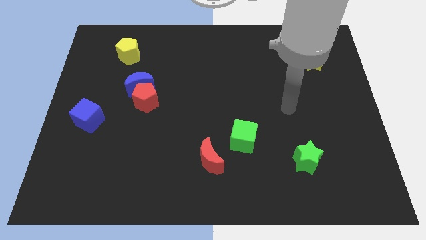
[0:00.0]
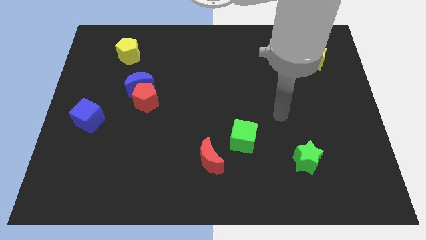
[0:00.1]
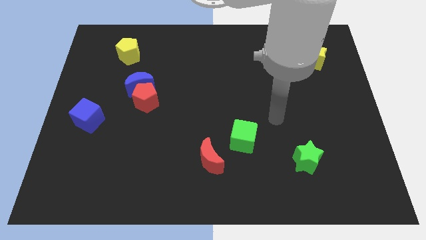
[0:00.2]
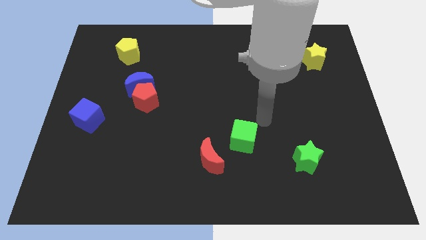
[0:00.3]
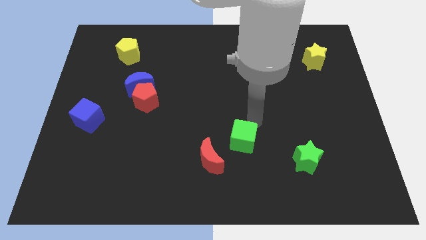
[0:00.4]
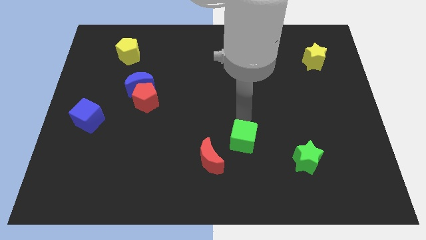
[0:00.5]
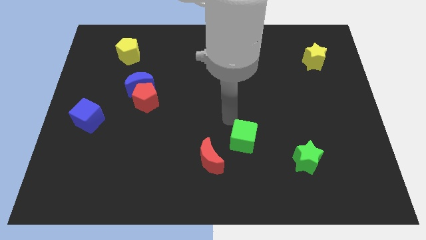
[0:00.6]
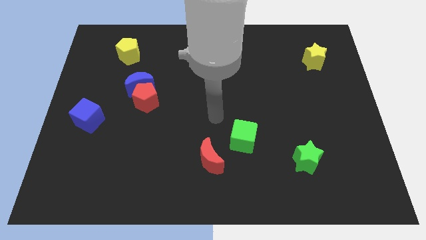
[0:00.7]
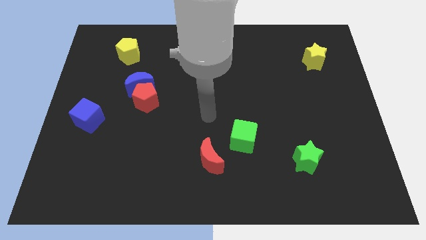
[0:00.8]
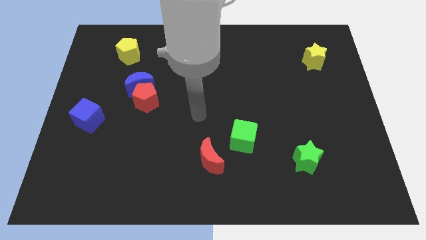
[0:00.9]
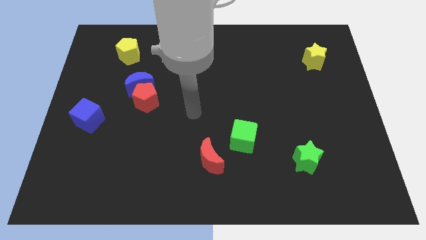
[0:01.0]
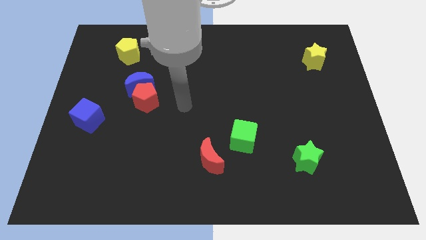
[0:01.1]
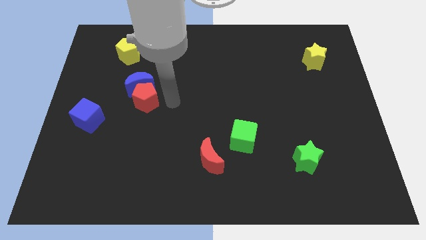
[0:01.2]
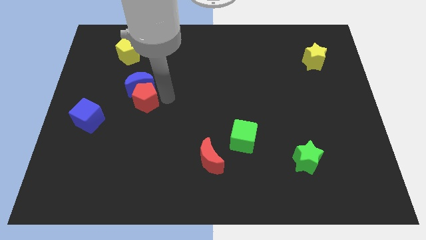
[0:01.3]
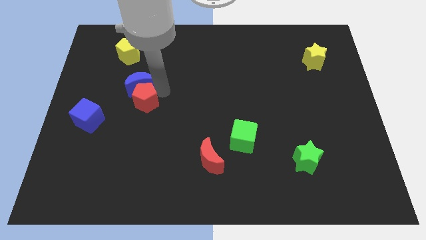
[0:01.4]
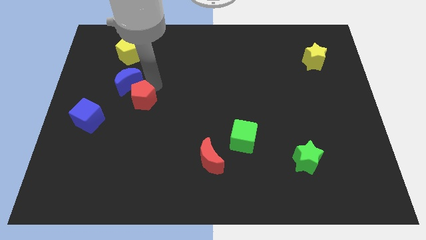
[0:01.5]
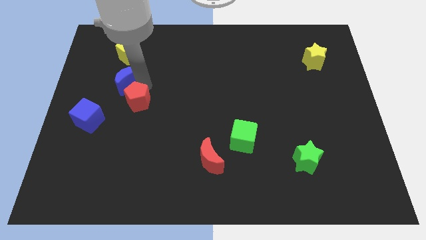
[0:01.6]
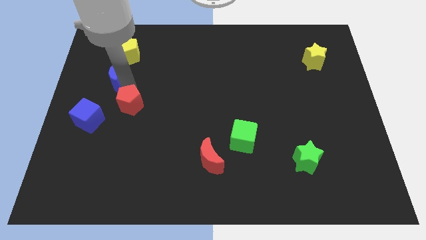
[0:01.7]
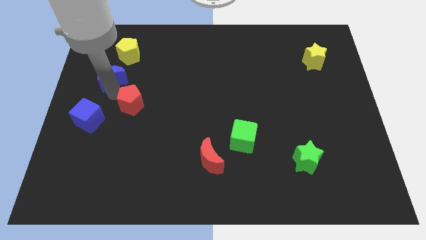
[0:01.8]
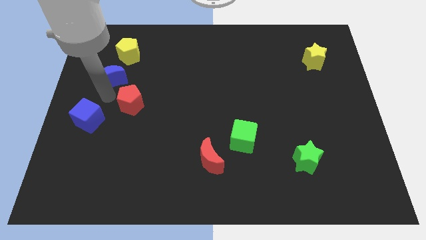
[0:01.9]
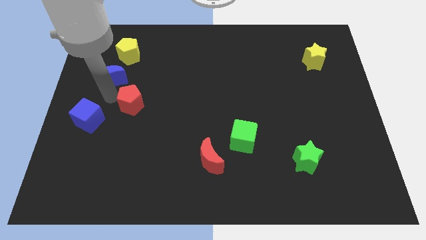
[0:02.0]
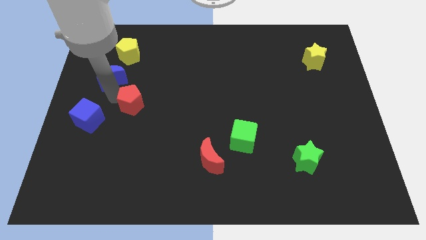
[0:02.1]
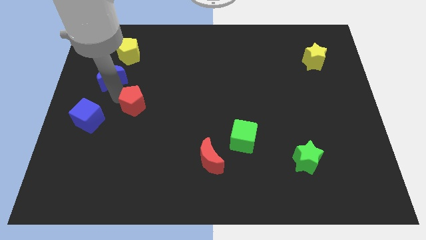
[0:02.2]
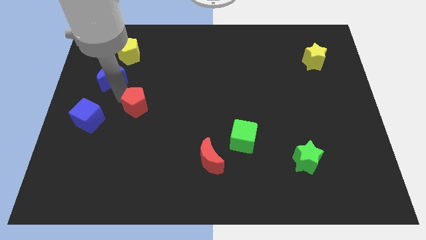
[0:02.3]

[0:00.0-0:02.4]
move the red pentagon away from the blue moon

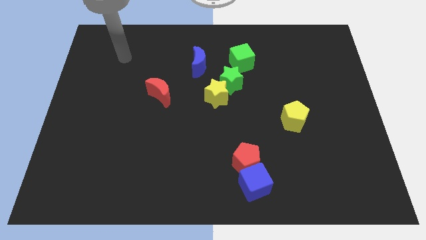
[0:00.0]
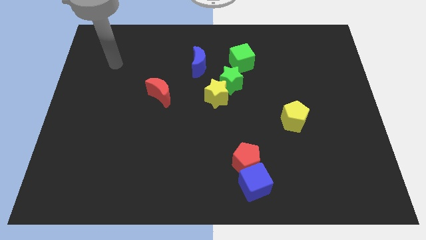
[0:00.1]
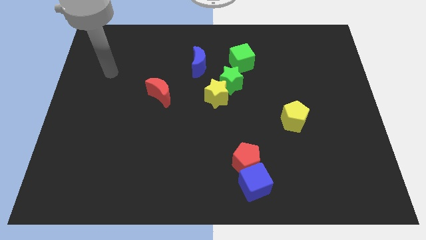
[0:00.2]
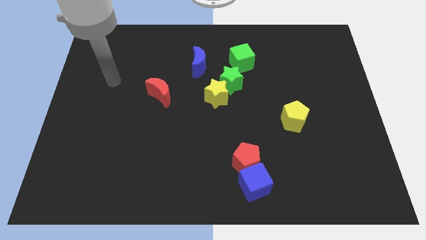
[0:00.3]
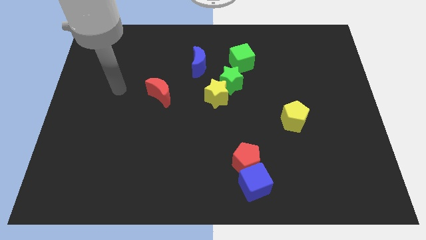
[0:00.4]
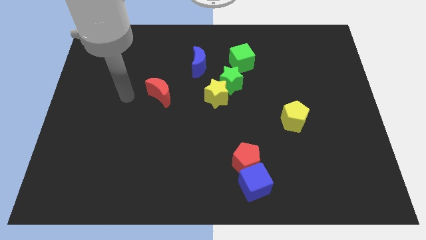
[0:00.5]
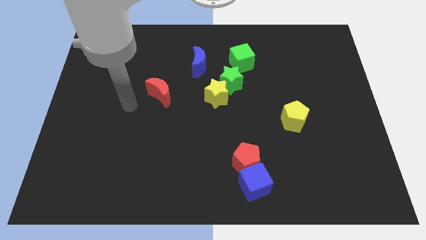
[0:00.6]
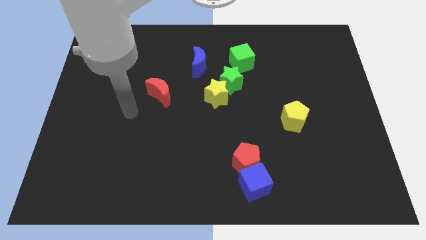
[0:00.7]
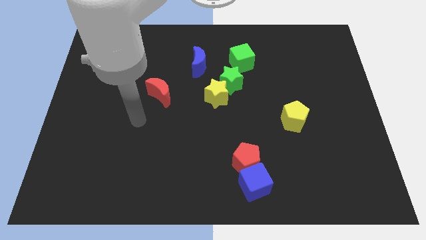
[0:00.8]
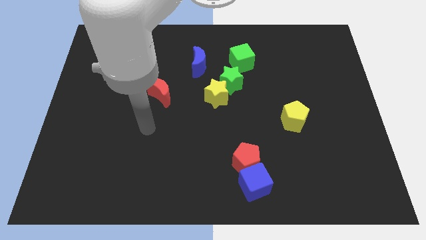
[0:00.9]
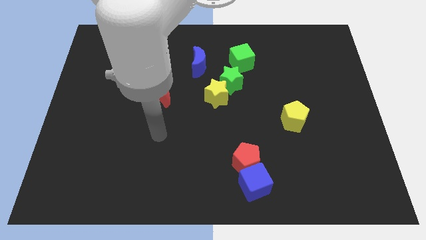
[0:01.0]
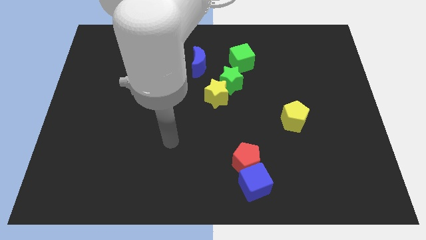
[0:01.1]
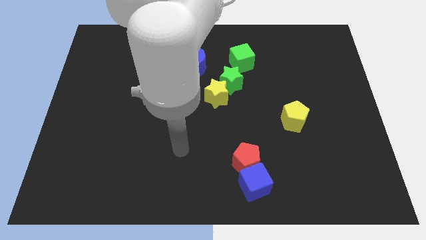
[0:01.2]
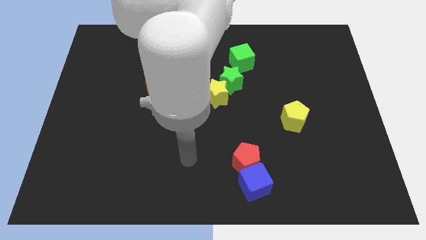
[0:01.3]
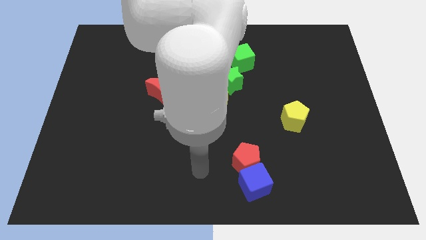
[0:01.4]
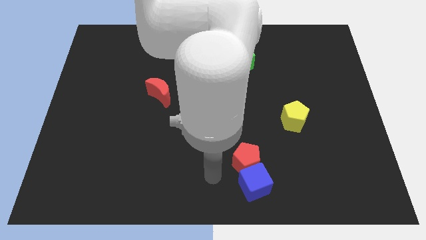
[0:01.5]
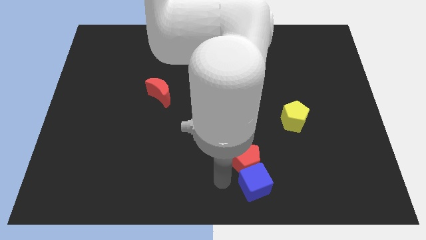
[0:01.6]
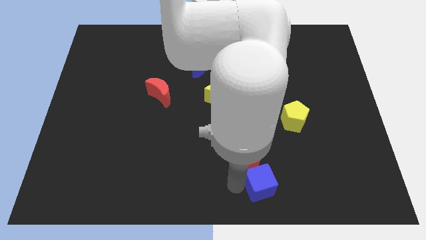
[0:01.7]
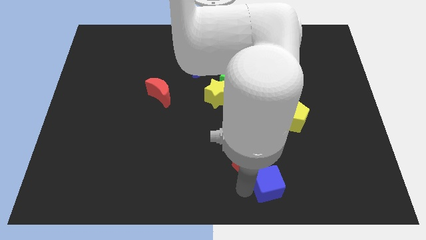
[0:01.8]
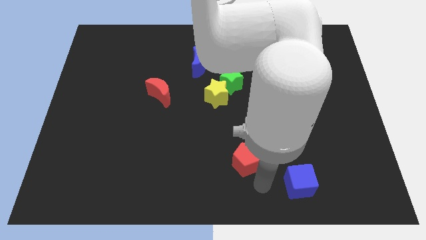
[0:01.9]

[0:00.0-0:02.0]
separate the red pentagon from the blue cube

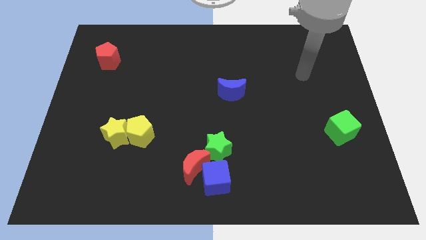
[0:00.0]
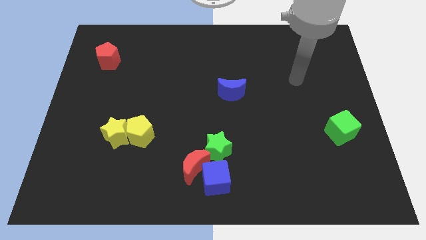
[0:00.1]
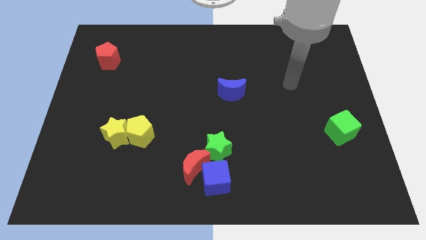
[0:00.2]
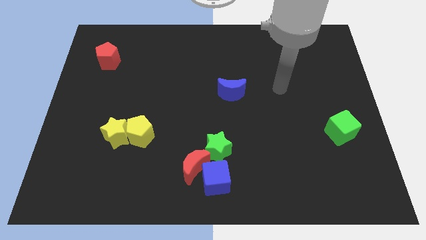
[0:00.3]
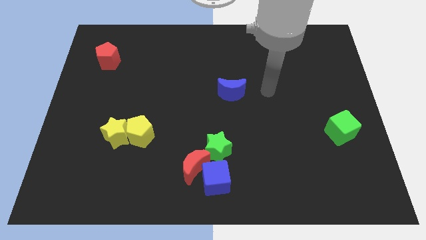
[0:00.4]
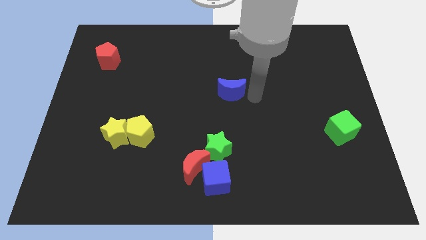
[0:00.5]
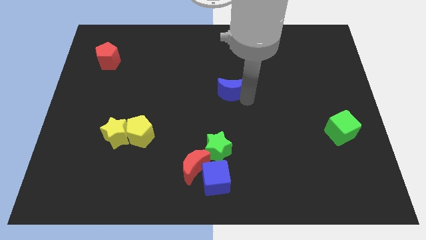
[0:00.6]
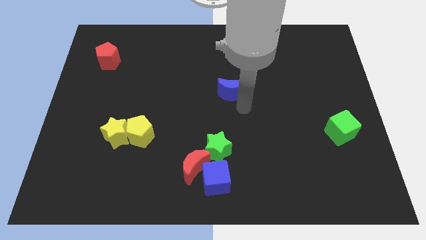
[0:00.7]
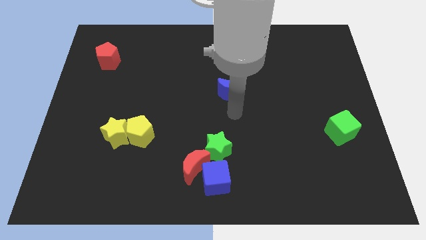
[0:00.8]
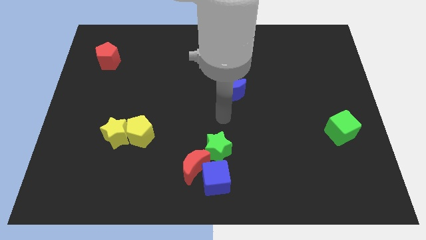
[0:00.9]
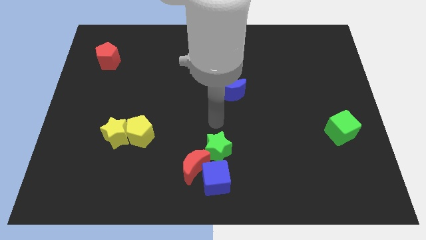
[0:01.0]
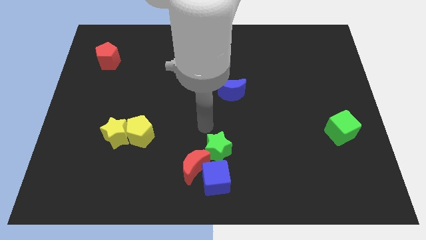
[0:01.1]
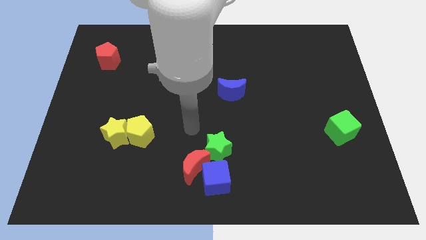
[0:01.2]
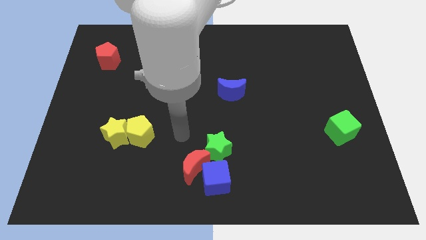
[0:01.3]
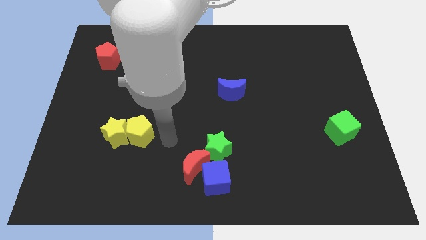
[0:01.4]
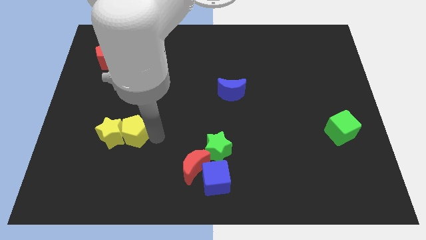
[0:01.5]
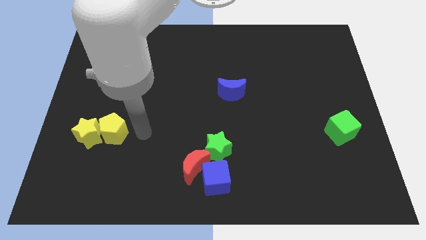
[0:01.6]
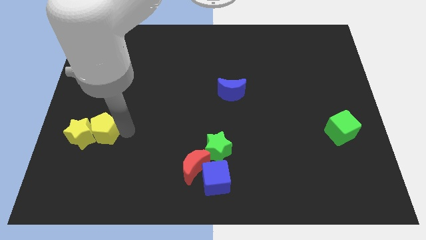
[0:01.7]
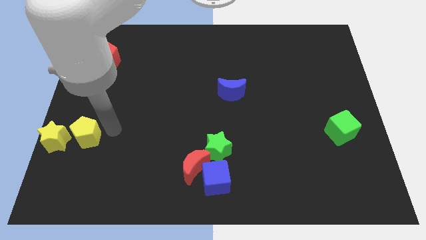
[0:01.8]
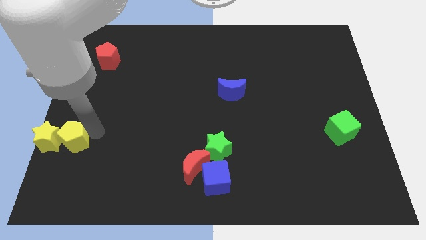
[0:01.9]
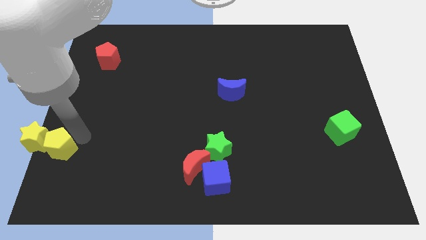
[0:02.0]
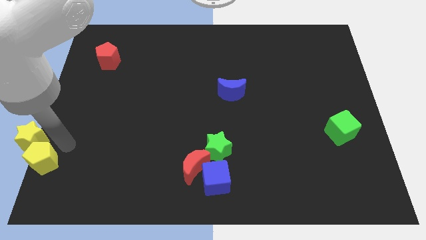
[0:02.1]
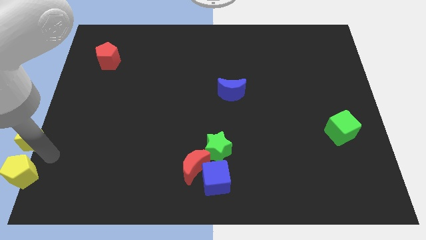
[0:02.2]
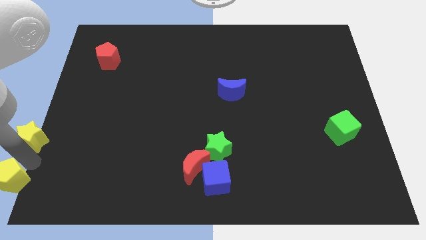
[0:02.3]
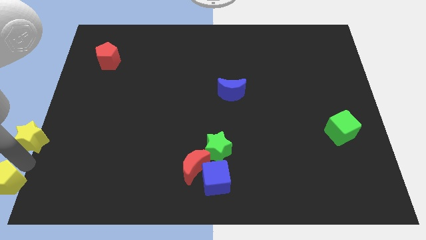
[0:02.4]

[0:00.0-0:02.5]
move the yellow star away from the yellow pentagon

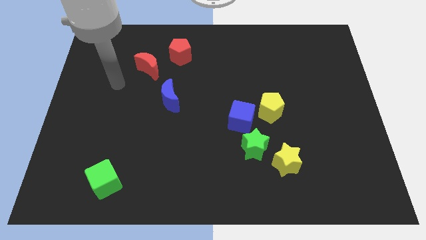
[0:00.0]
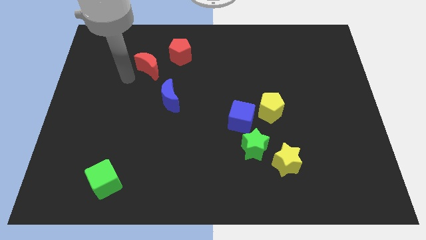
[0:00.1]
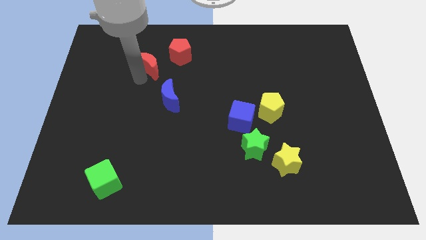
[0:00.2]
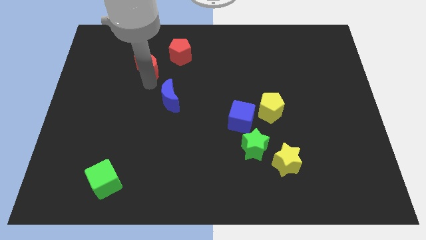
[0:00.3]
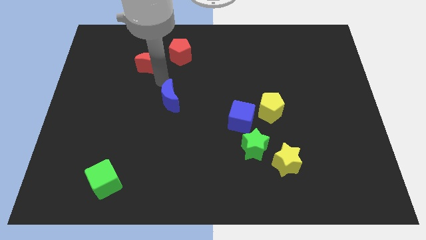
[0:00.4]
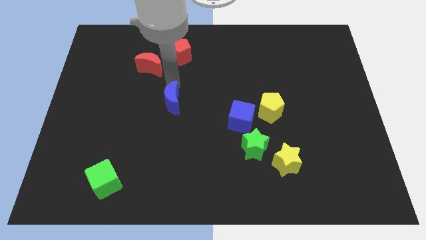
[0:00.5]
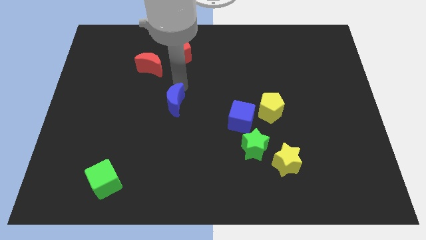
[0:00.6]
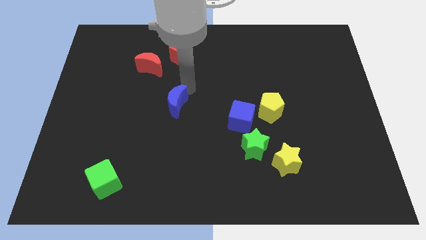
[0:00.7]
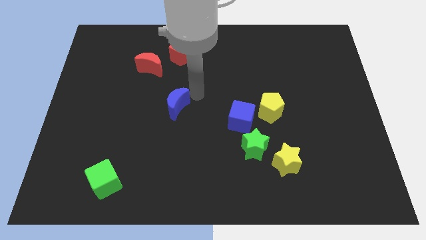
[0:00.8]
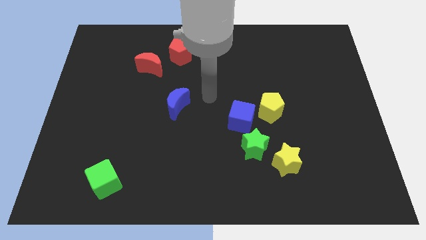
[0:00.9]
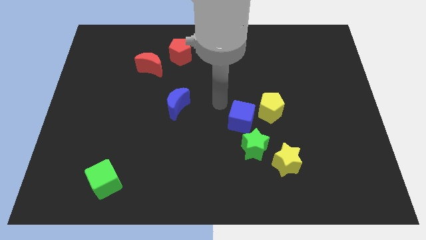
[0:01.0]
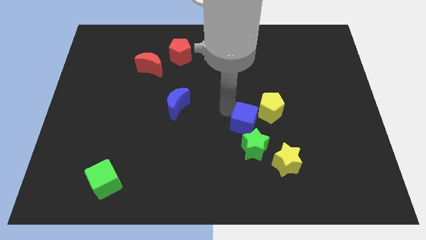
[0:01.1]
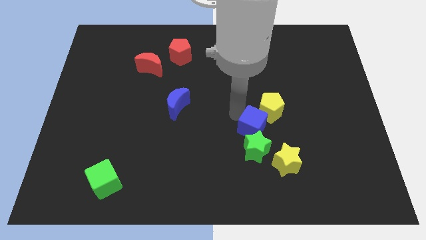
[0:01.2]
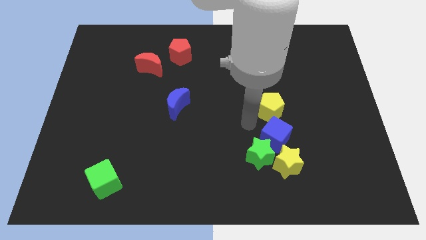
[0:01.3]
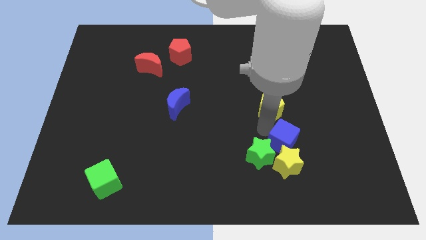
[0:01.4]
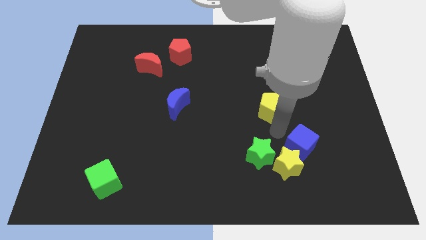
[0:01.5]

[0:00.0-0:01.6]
pull the yellow pentagon apart from the blue cube

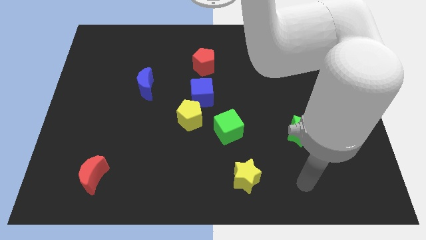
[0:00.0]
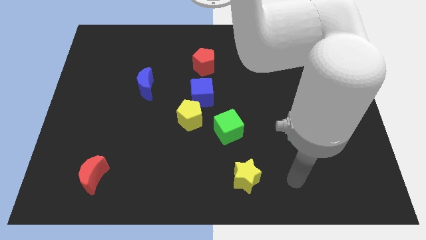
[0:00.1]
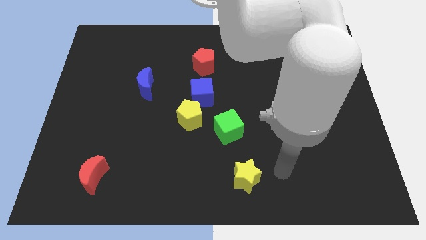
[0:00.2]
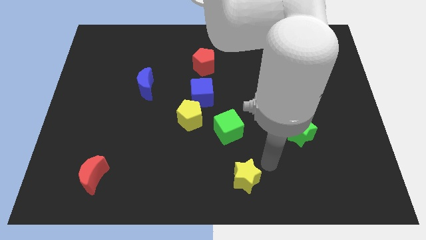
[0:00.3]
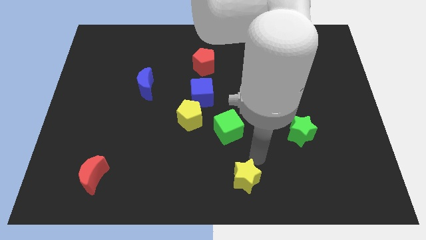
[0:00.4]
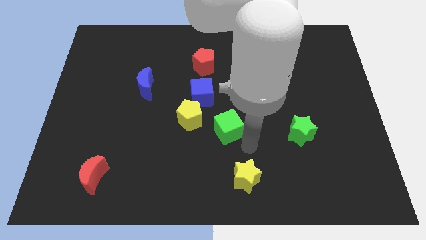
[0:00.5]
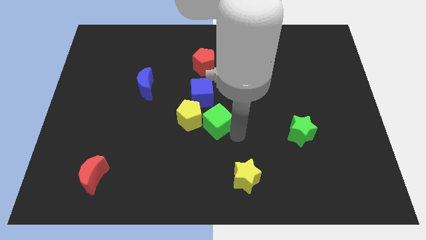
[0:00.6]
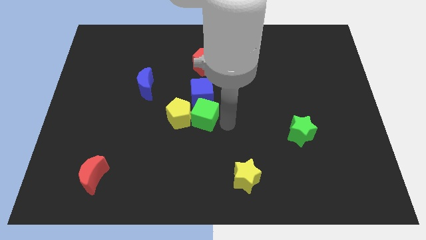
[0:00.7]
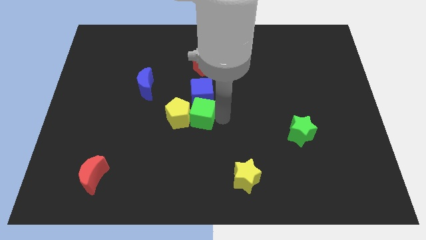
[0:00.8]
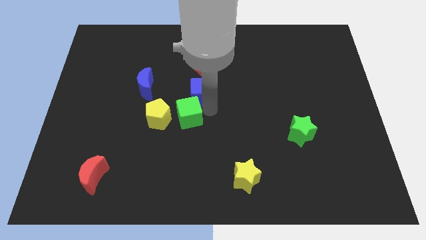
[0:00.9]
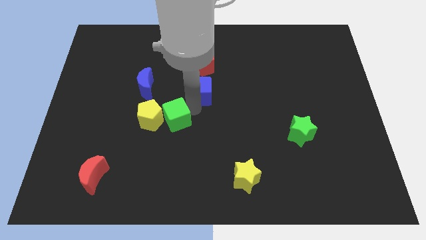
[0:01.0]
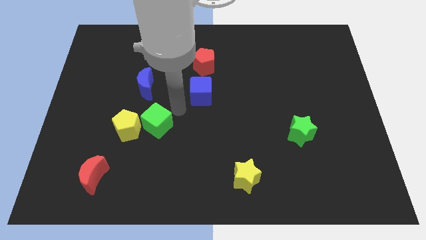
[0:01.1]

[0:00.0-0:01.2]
move the yellow pentagon away from the blue cube and green cube
